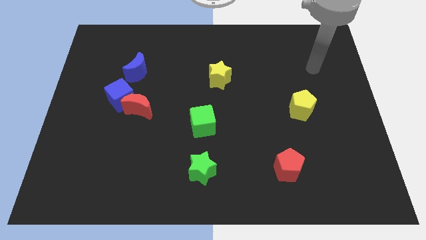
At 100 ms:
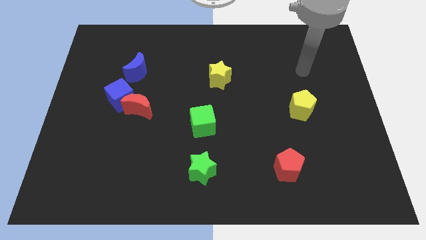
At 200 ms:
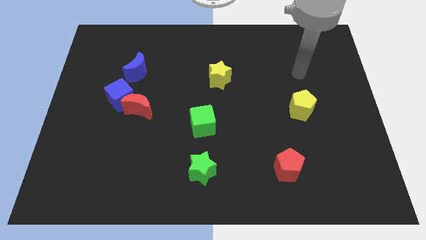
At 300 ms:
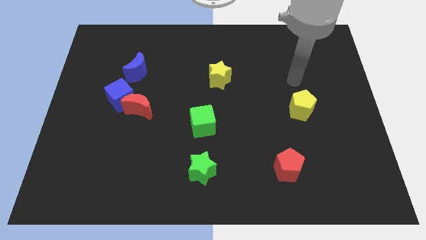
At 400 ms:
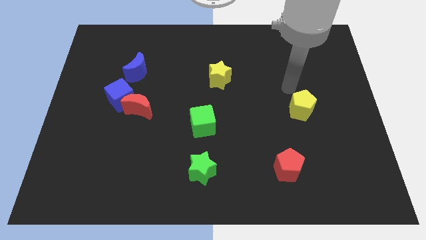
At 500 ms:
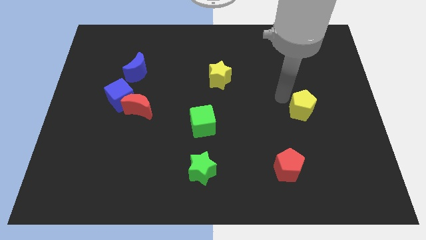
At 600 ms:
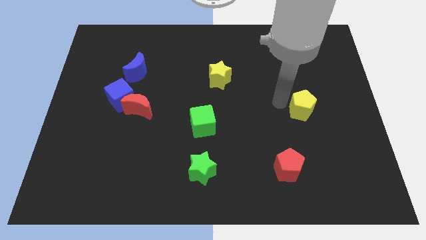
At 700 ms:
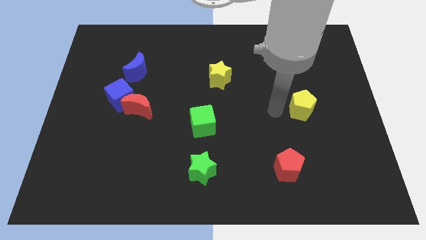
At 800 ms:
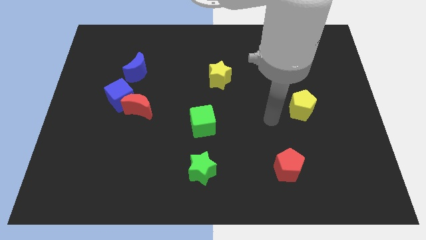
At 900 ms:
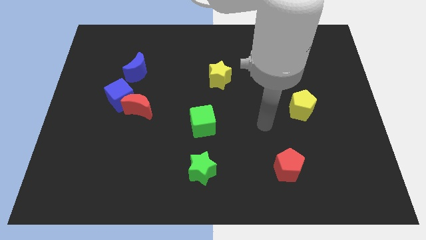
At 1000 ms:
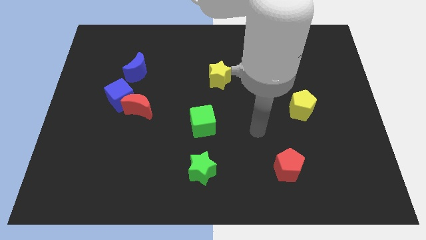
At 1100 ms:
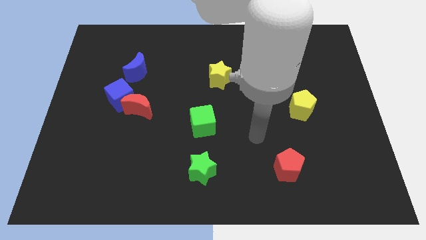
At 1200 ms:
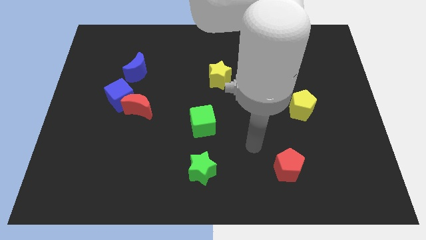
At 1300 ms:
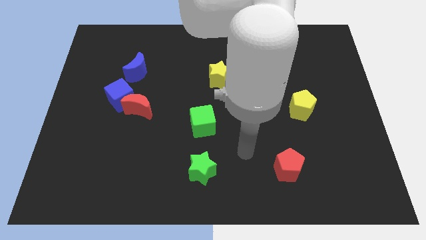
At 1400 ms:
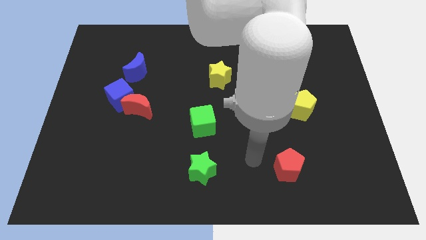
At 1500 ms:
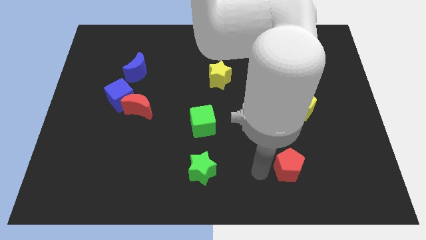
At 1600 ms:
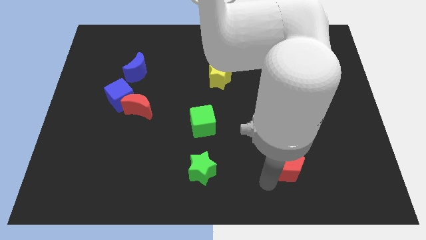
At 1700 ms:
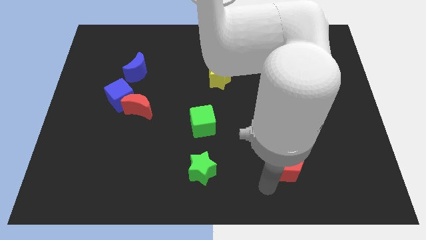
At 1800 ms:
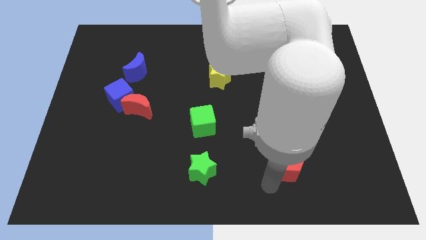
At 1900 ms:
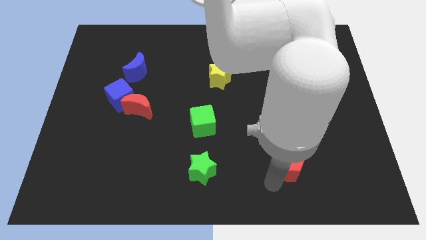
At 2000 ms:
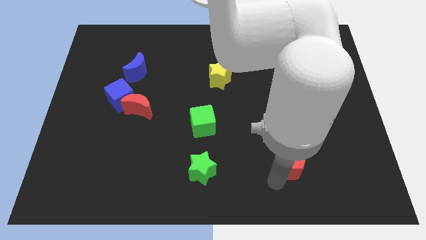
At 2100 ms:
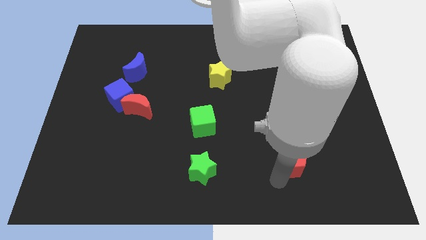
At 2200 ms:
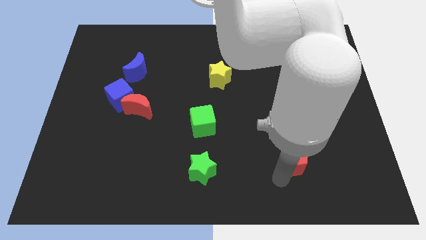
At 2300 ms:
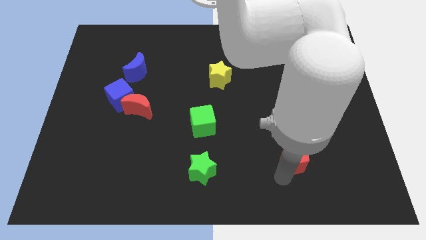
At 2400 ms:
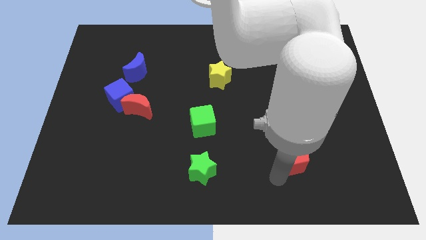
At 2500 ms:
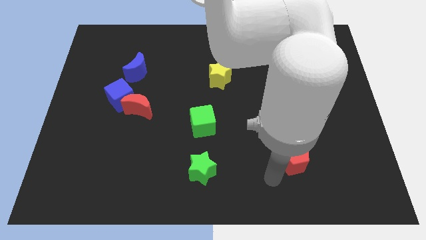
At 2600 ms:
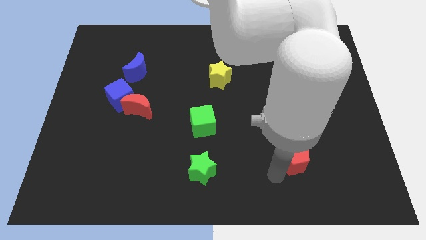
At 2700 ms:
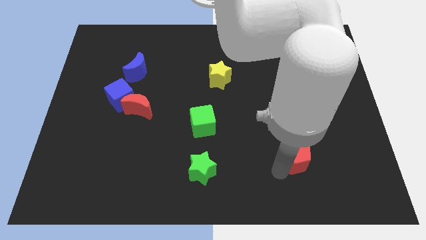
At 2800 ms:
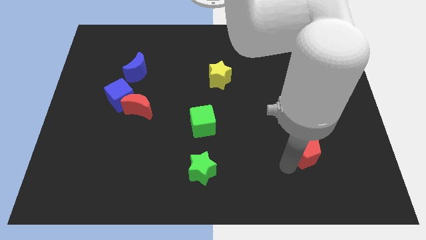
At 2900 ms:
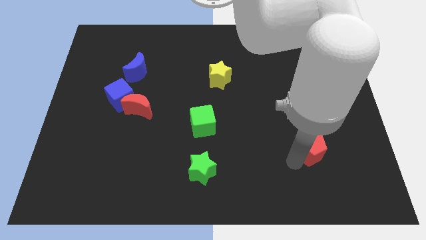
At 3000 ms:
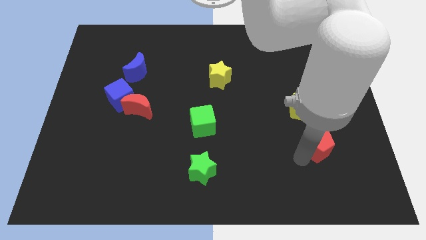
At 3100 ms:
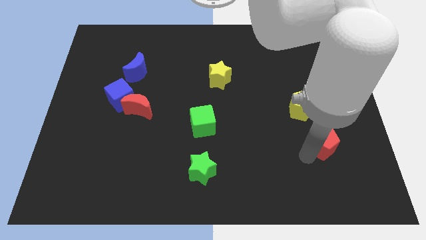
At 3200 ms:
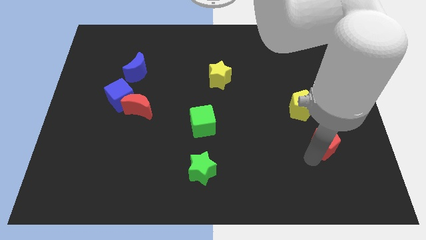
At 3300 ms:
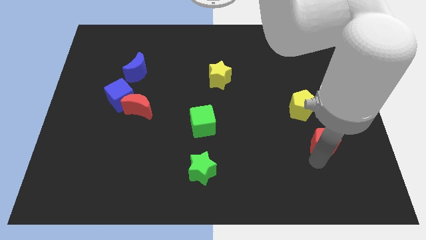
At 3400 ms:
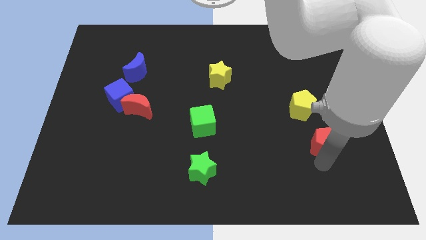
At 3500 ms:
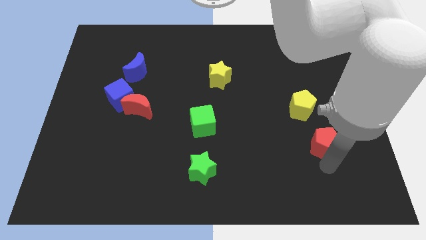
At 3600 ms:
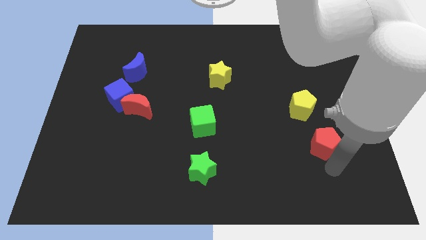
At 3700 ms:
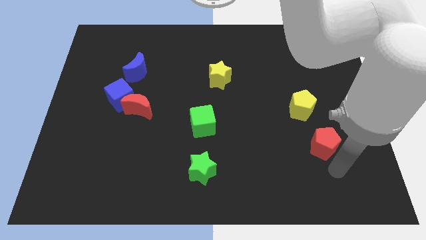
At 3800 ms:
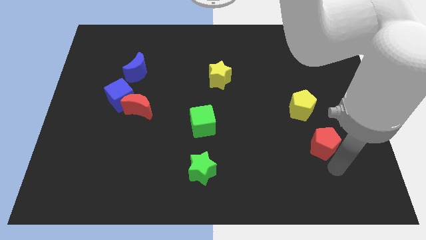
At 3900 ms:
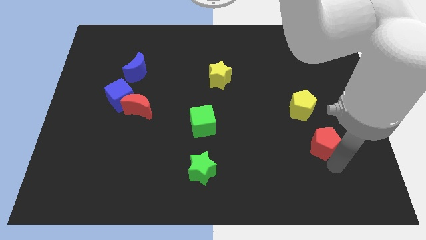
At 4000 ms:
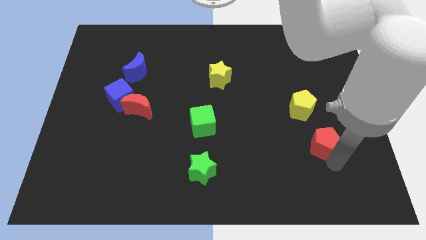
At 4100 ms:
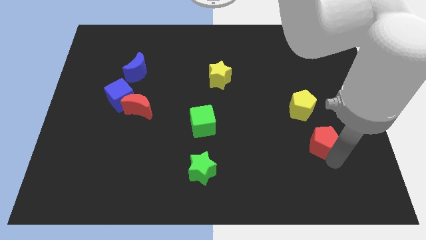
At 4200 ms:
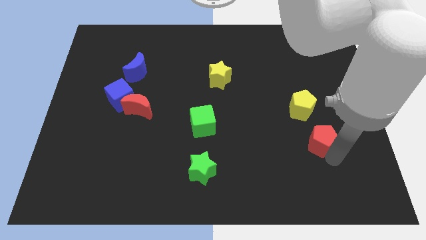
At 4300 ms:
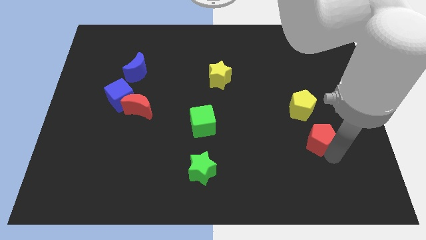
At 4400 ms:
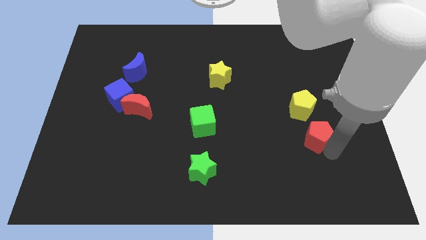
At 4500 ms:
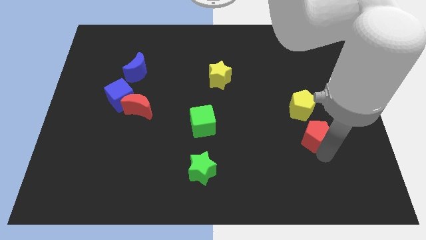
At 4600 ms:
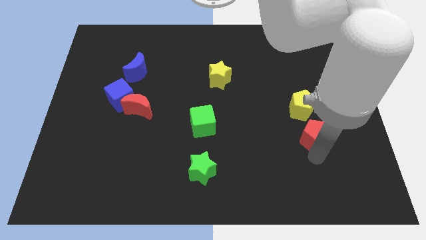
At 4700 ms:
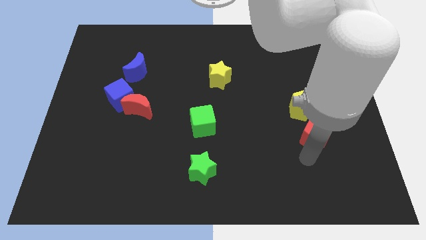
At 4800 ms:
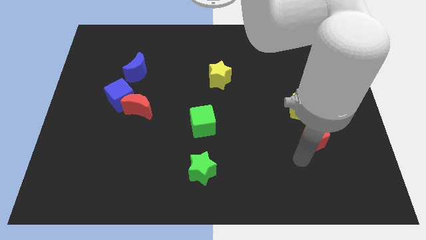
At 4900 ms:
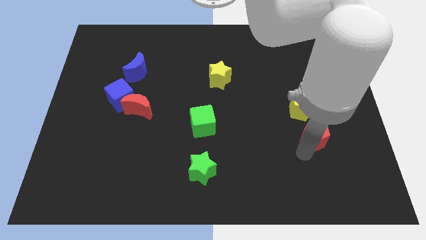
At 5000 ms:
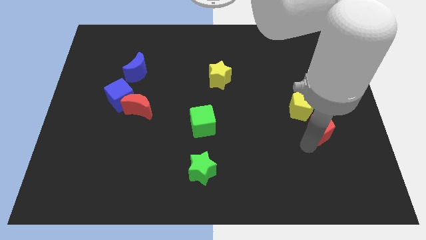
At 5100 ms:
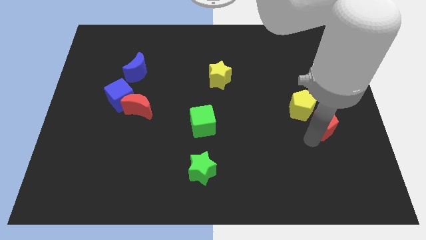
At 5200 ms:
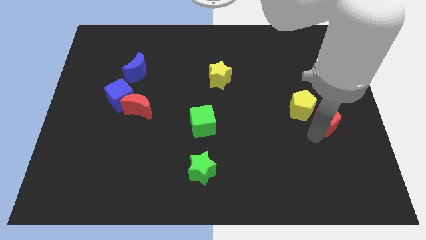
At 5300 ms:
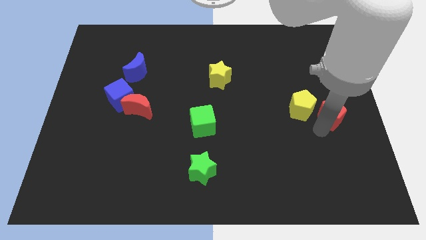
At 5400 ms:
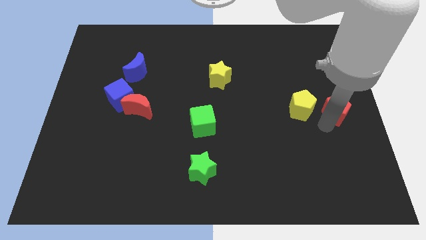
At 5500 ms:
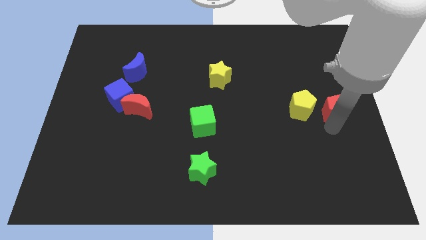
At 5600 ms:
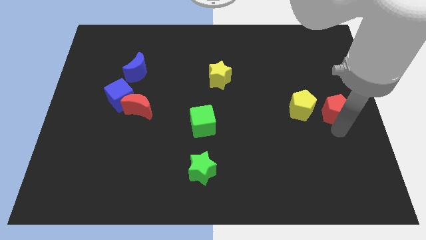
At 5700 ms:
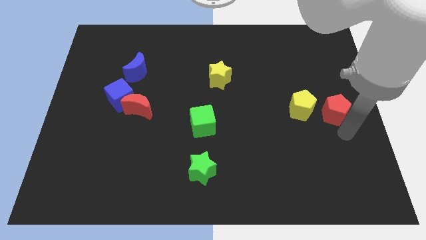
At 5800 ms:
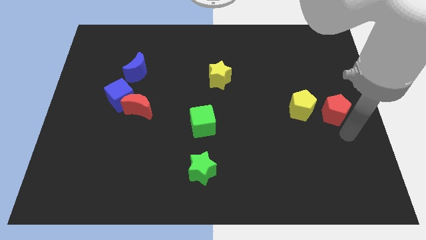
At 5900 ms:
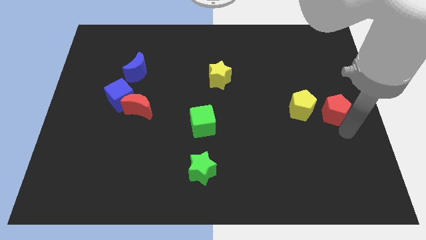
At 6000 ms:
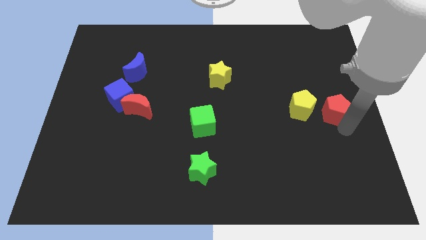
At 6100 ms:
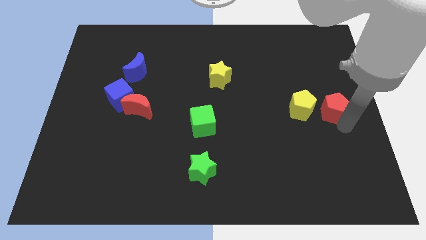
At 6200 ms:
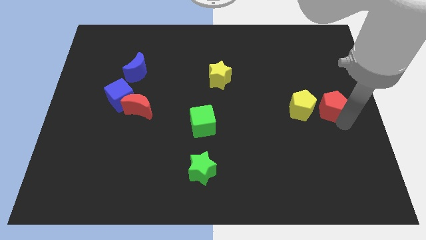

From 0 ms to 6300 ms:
put the red pentagon to the top right of the yellow pentagon
